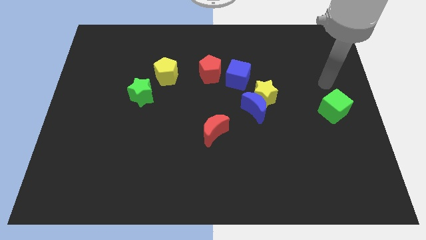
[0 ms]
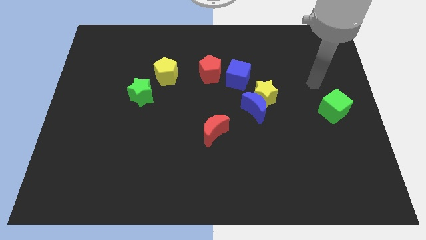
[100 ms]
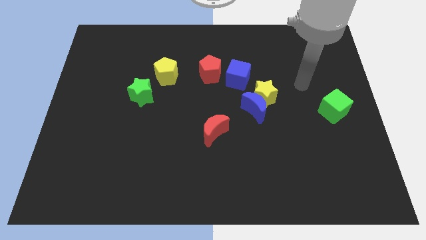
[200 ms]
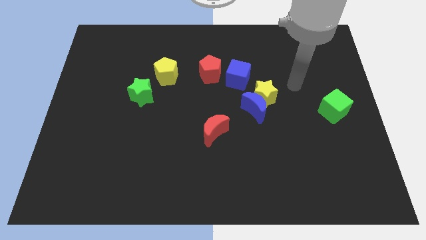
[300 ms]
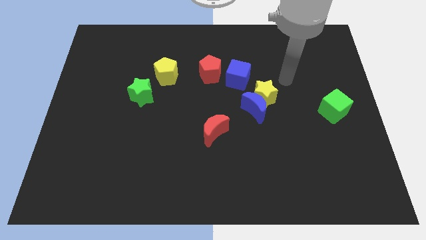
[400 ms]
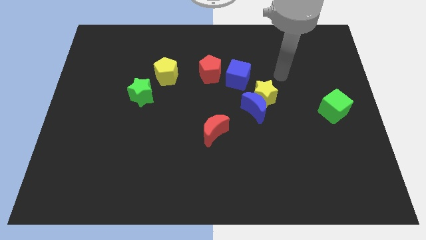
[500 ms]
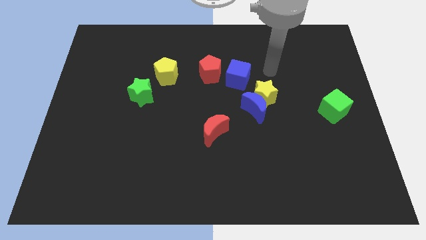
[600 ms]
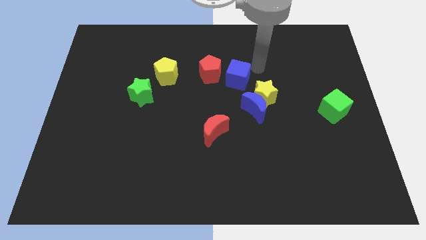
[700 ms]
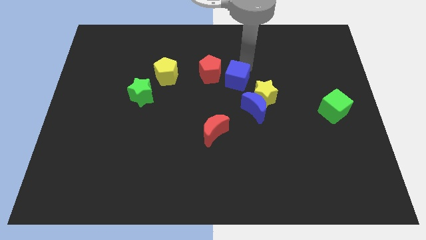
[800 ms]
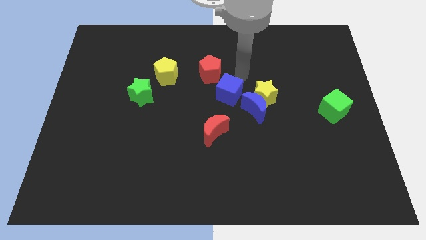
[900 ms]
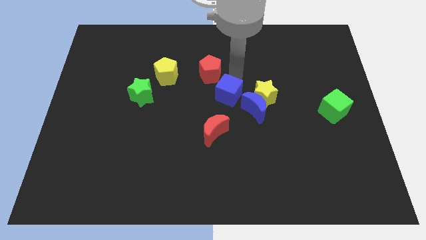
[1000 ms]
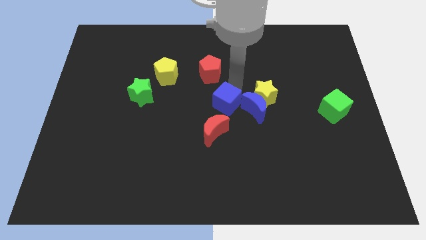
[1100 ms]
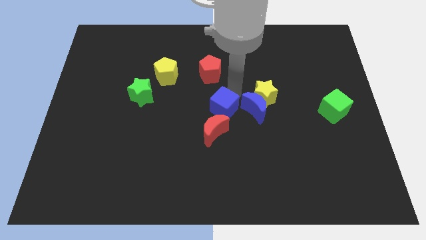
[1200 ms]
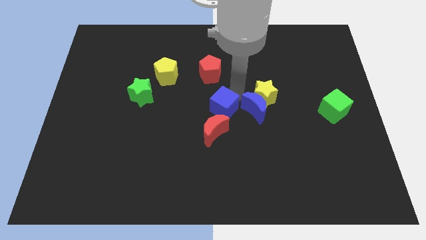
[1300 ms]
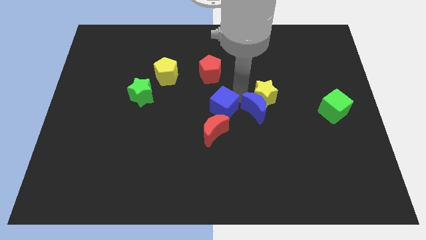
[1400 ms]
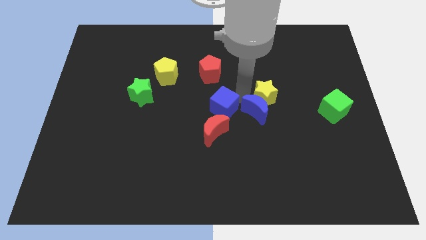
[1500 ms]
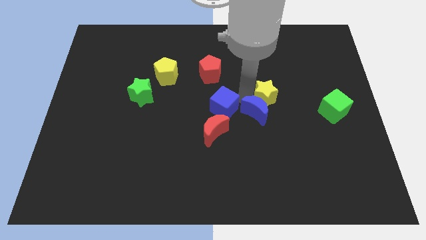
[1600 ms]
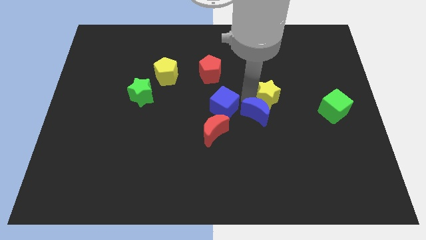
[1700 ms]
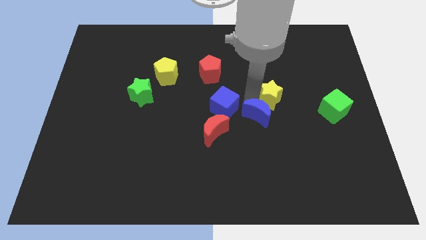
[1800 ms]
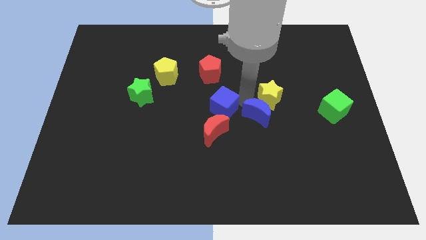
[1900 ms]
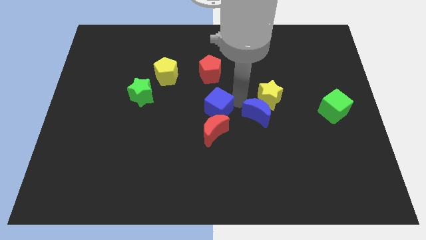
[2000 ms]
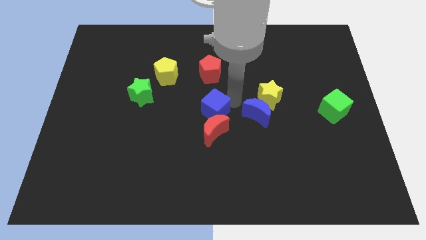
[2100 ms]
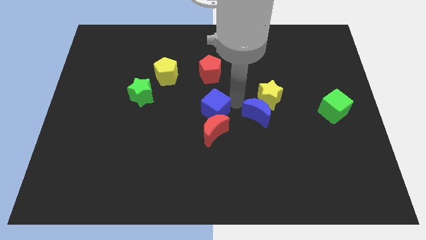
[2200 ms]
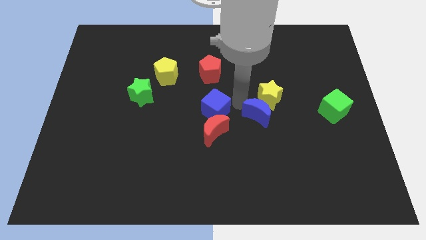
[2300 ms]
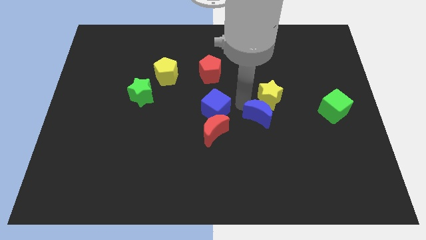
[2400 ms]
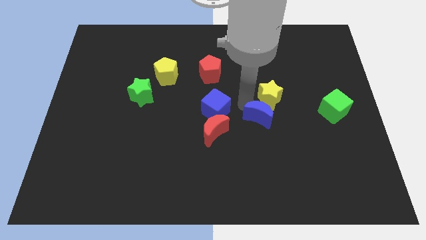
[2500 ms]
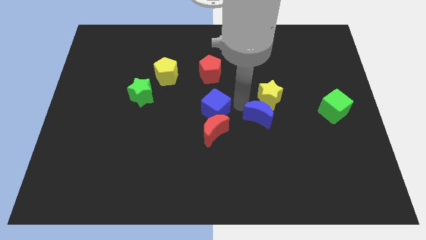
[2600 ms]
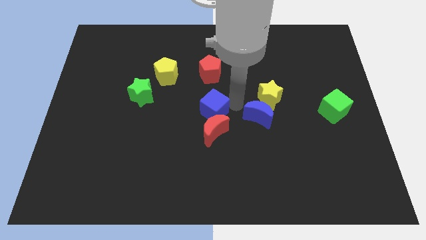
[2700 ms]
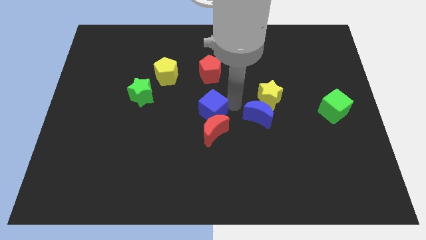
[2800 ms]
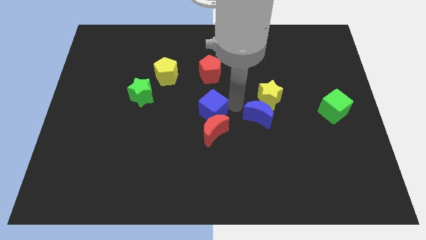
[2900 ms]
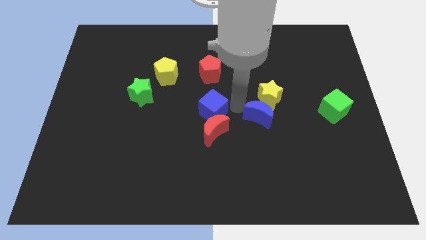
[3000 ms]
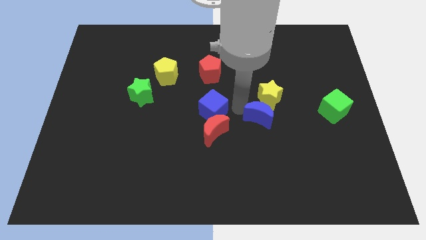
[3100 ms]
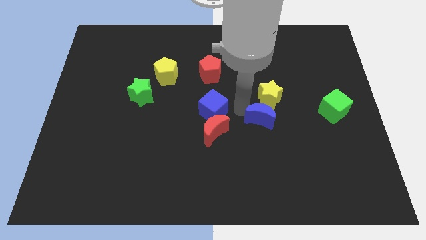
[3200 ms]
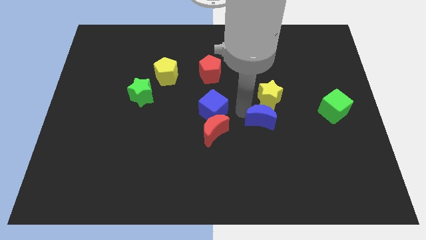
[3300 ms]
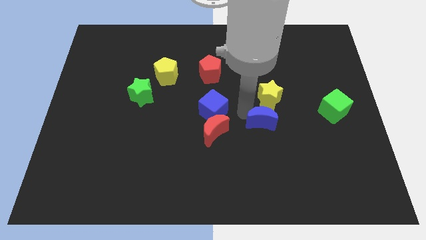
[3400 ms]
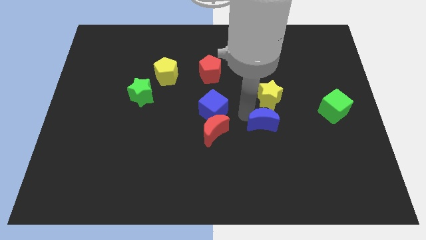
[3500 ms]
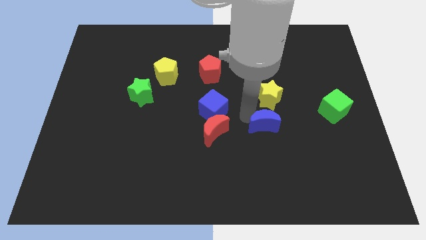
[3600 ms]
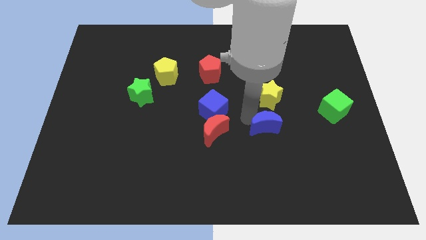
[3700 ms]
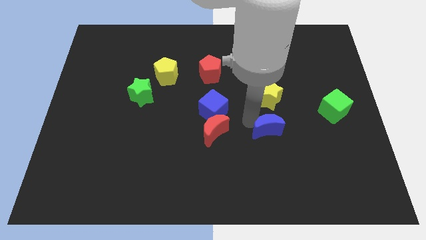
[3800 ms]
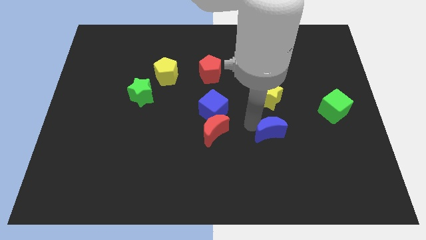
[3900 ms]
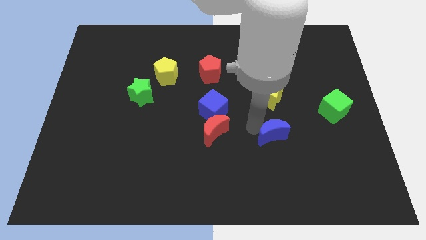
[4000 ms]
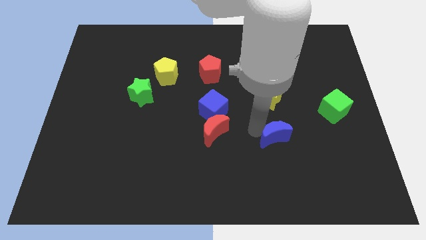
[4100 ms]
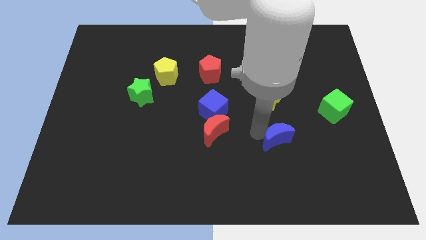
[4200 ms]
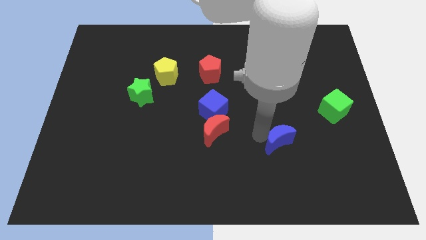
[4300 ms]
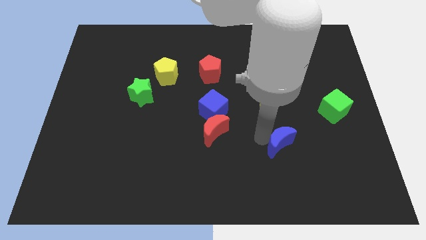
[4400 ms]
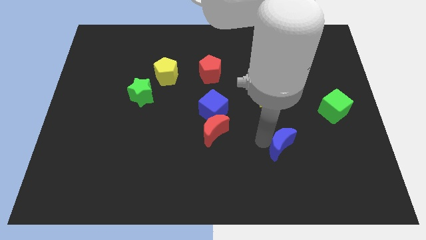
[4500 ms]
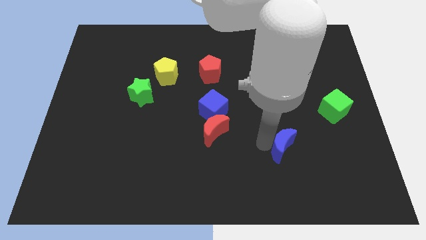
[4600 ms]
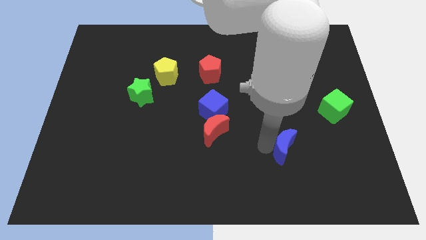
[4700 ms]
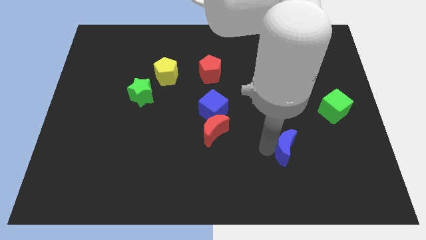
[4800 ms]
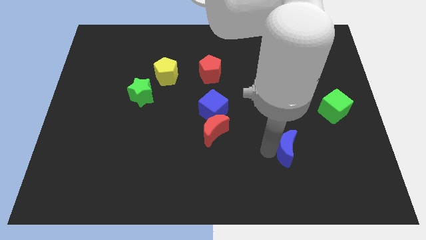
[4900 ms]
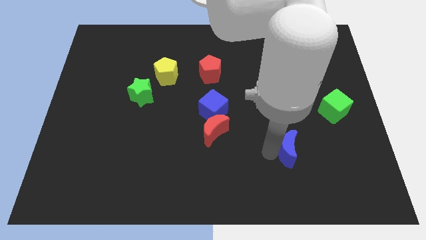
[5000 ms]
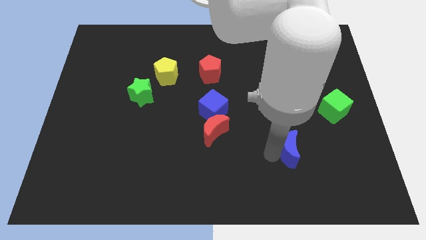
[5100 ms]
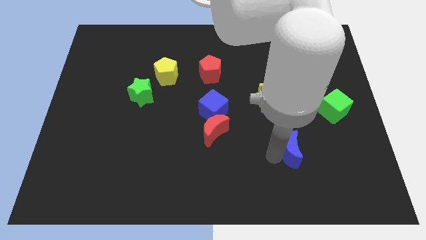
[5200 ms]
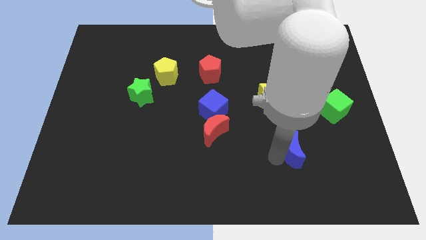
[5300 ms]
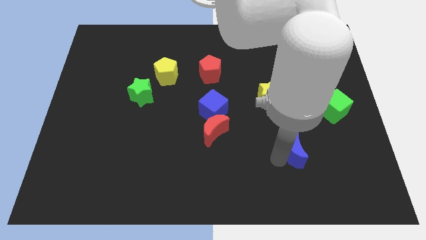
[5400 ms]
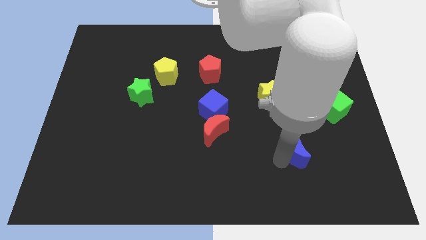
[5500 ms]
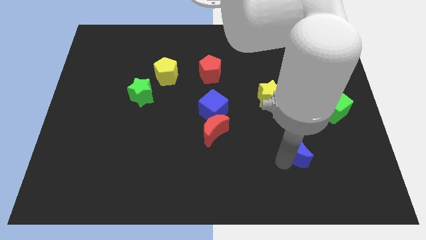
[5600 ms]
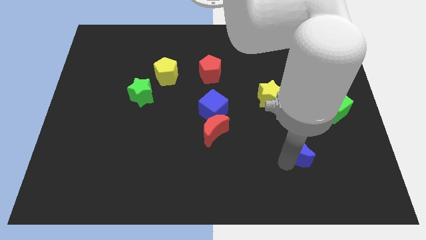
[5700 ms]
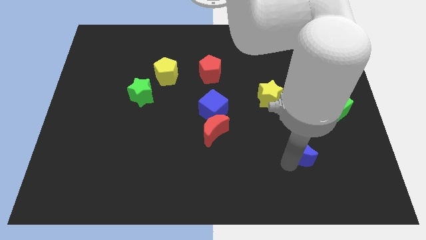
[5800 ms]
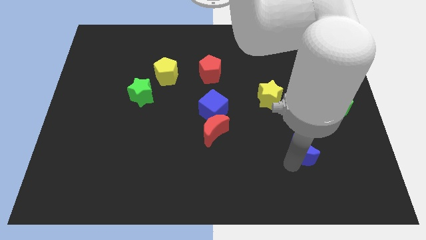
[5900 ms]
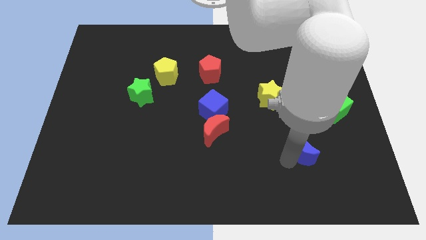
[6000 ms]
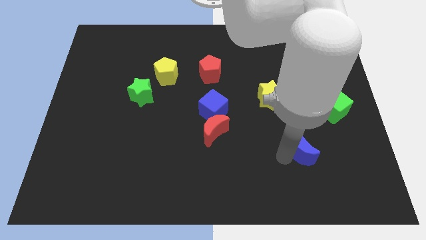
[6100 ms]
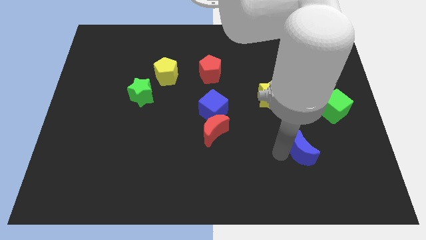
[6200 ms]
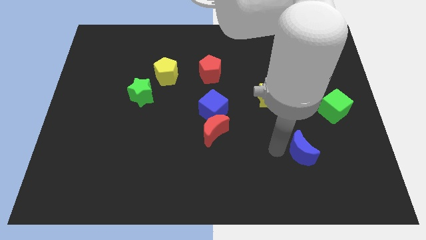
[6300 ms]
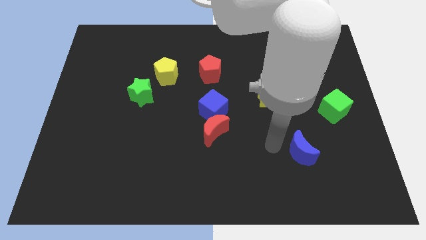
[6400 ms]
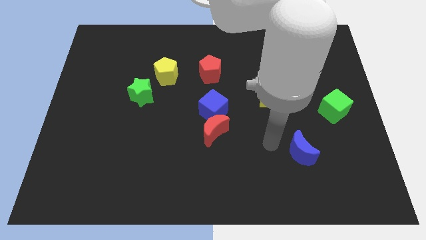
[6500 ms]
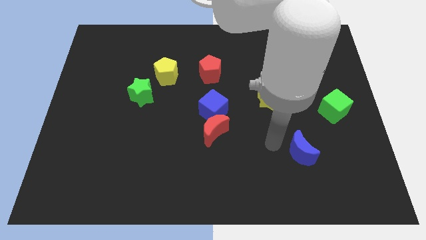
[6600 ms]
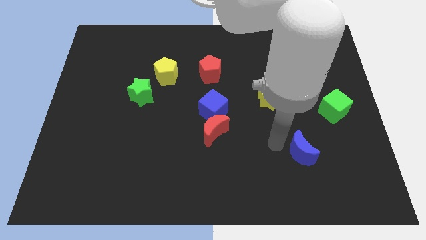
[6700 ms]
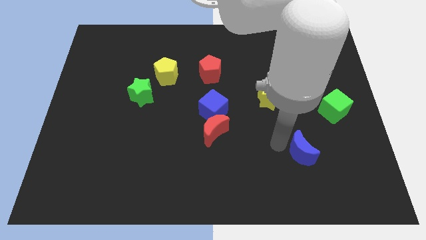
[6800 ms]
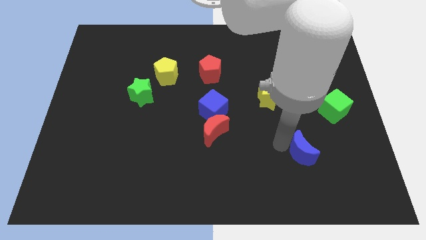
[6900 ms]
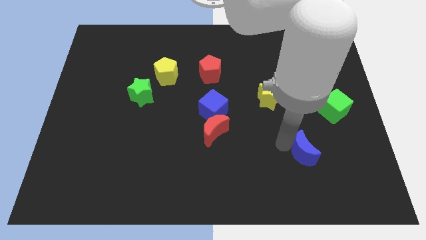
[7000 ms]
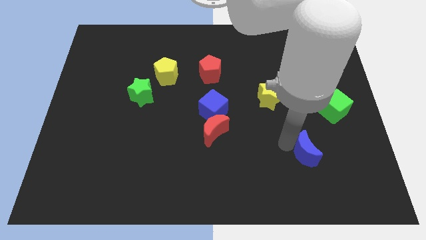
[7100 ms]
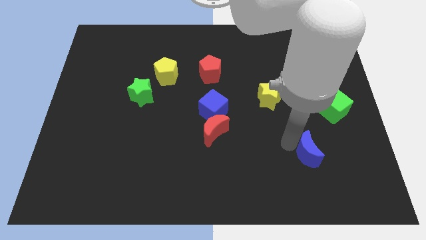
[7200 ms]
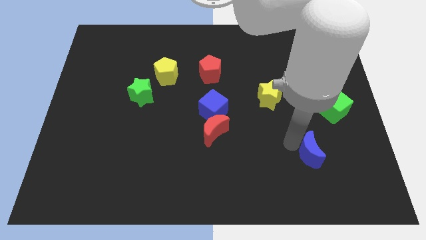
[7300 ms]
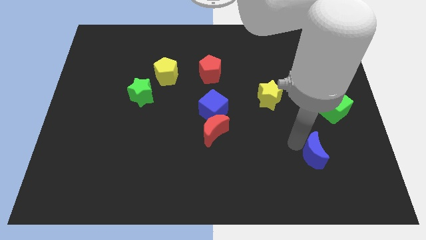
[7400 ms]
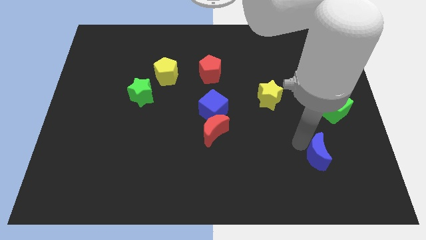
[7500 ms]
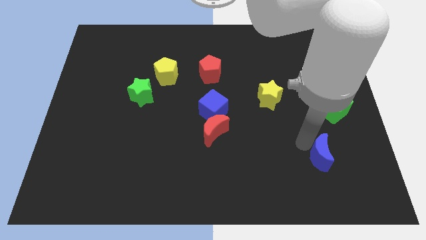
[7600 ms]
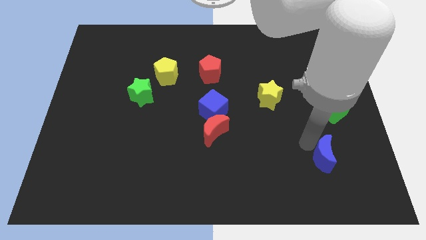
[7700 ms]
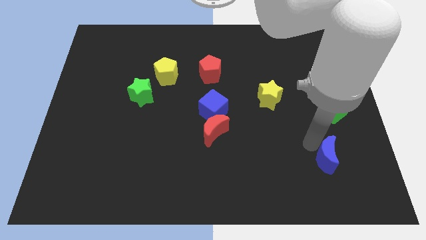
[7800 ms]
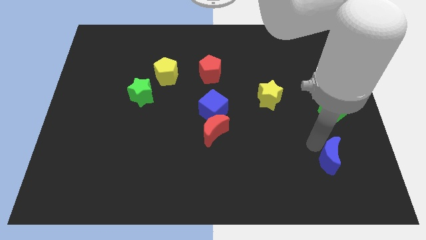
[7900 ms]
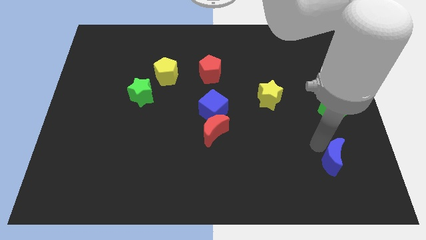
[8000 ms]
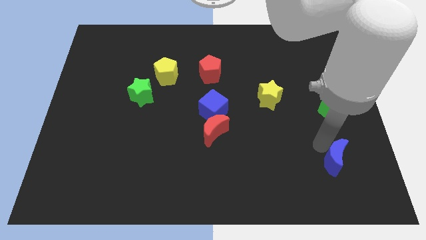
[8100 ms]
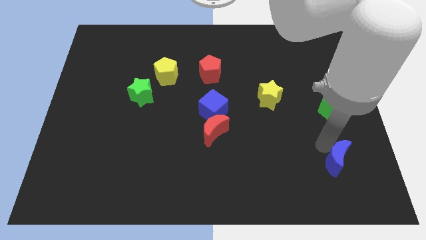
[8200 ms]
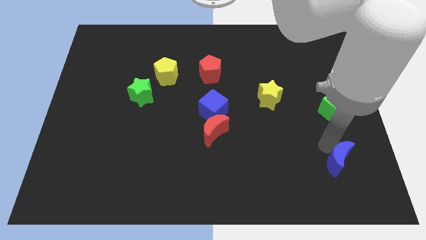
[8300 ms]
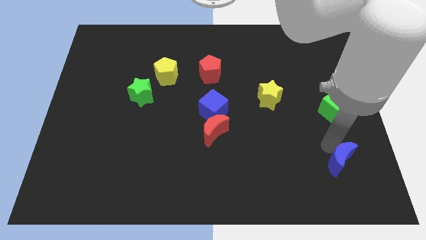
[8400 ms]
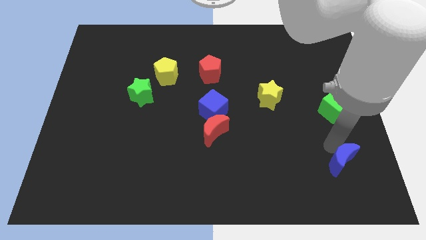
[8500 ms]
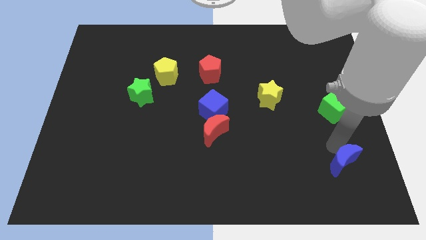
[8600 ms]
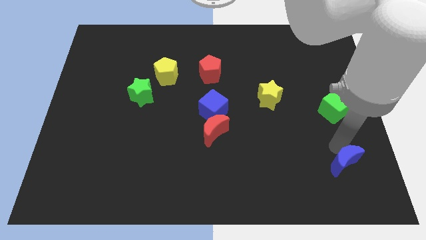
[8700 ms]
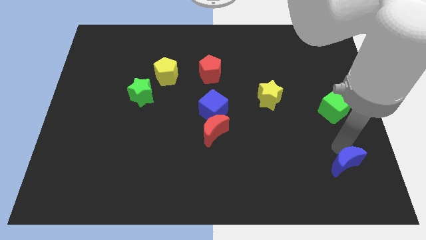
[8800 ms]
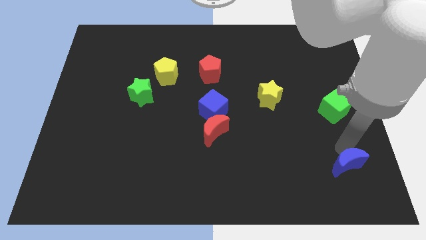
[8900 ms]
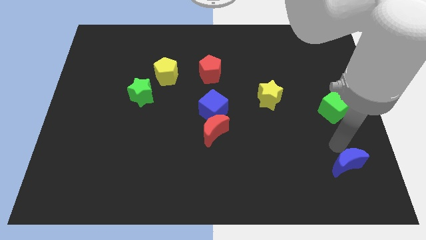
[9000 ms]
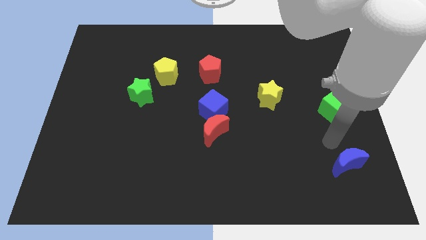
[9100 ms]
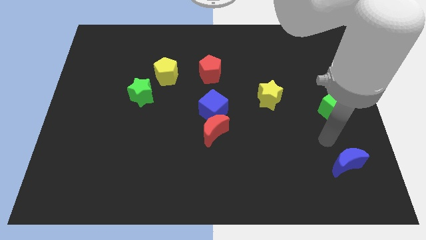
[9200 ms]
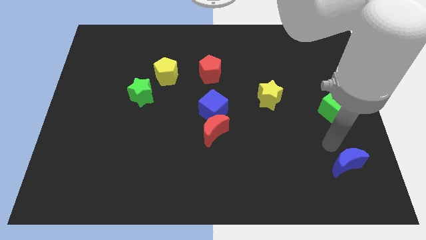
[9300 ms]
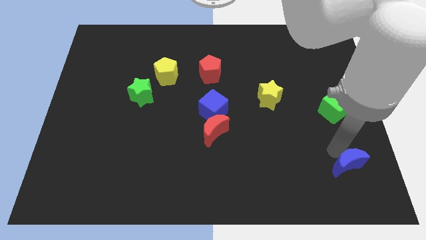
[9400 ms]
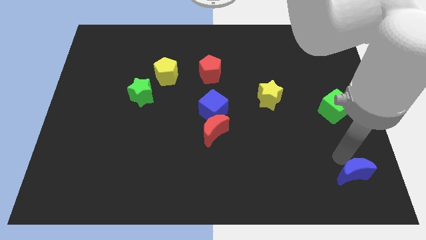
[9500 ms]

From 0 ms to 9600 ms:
slide the blue moon to the bottom right
